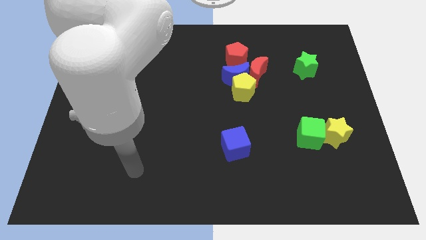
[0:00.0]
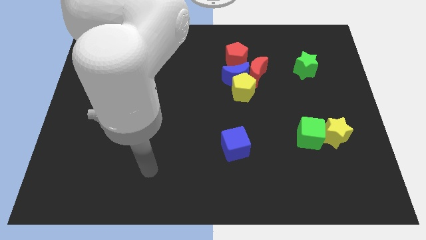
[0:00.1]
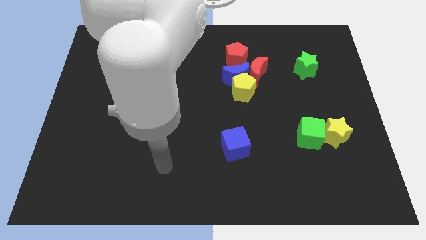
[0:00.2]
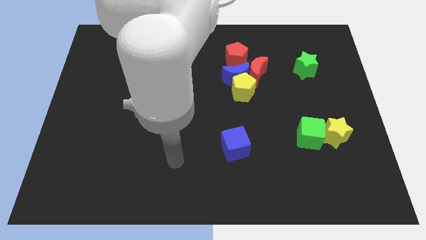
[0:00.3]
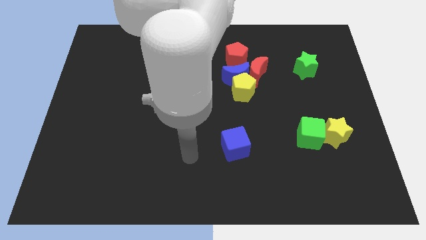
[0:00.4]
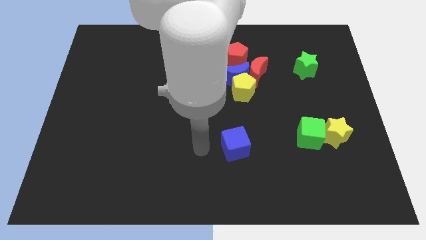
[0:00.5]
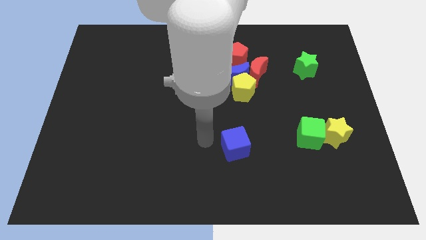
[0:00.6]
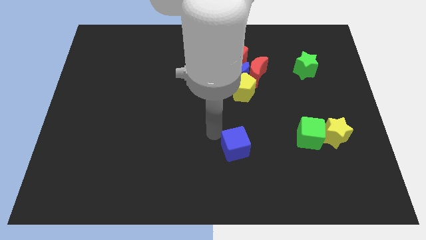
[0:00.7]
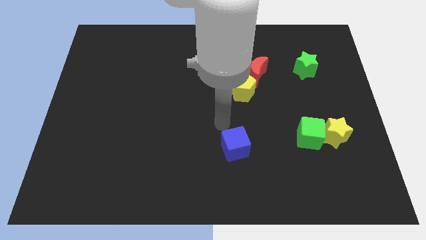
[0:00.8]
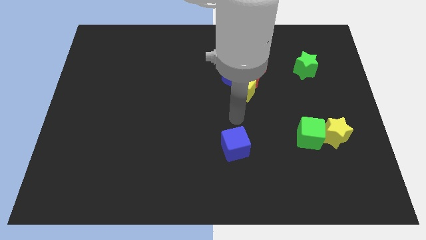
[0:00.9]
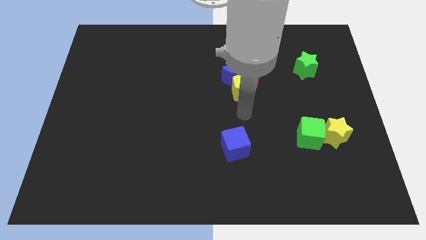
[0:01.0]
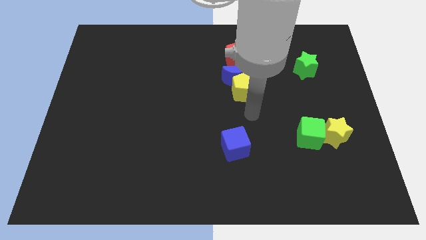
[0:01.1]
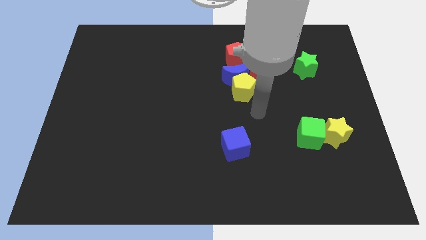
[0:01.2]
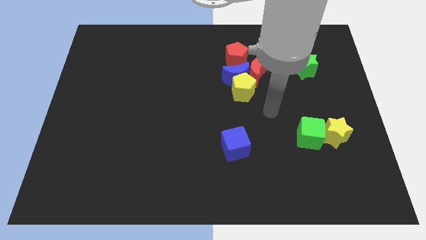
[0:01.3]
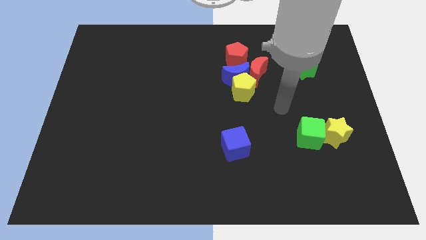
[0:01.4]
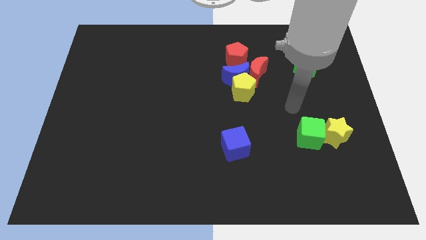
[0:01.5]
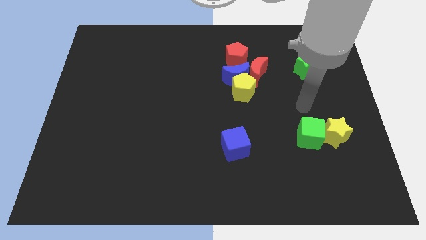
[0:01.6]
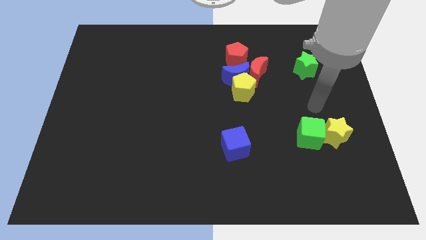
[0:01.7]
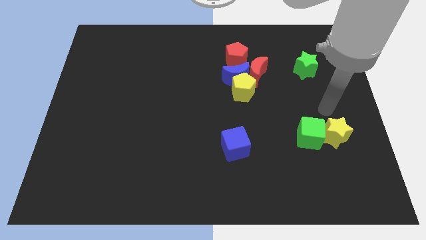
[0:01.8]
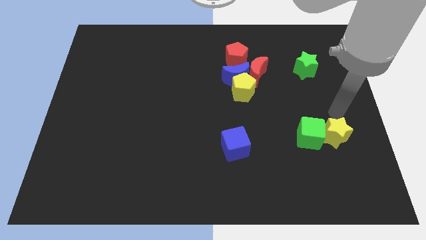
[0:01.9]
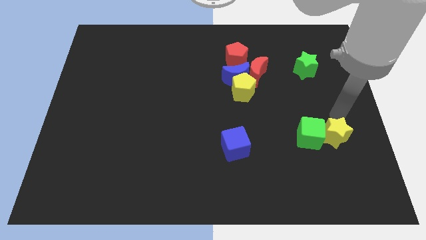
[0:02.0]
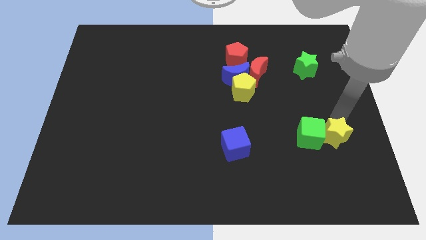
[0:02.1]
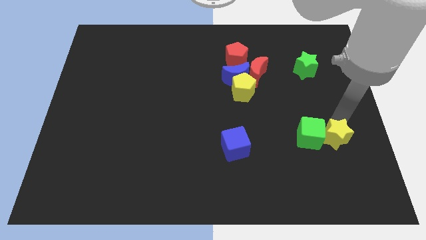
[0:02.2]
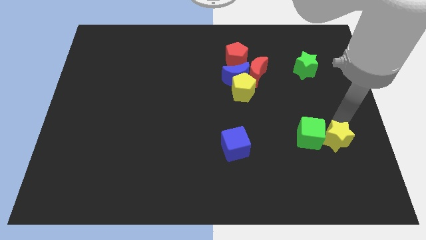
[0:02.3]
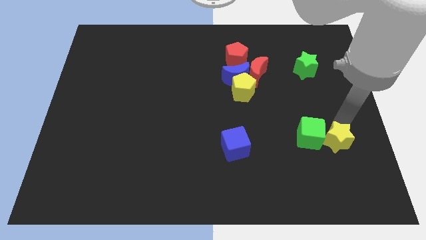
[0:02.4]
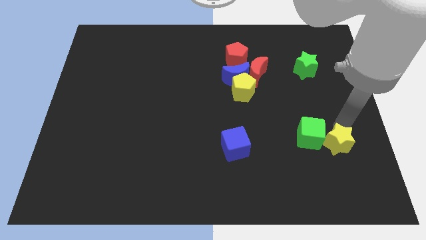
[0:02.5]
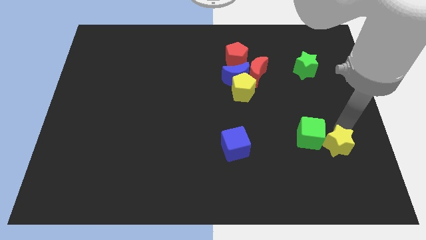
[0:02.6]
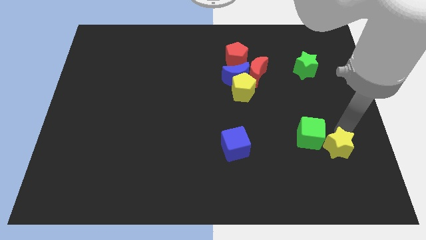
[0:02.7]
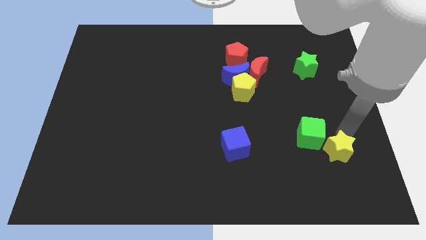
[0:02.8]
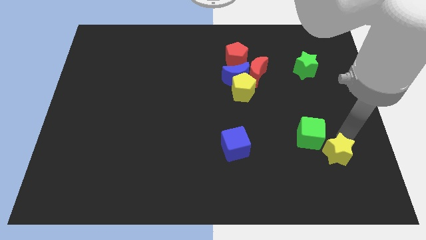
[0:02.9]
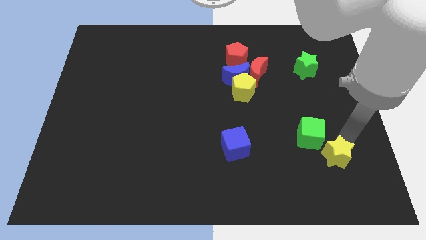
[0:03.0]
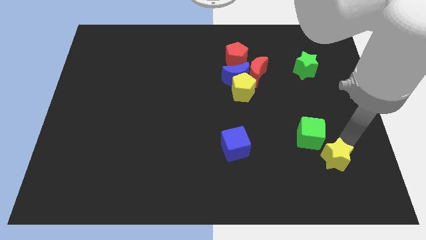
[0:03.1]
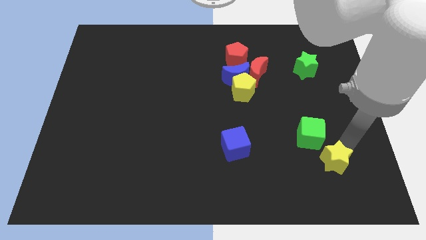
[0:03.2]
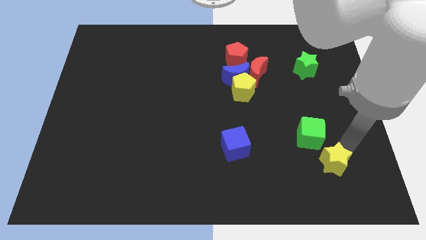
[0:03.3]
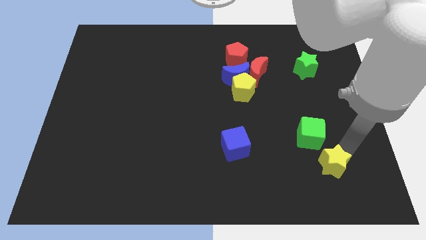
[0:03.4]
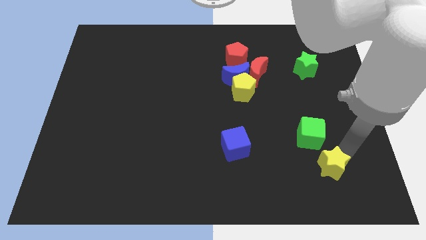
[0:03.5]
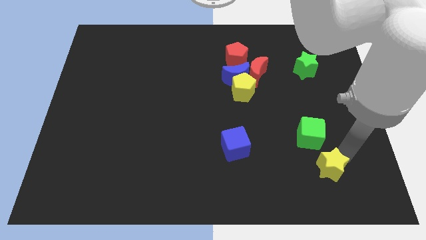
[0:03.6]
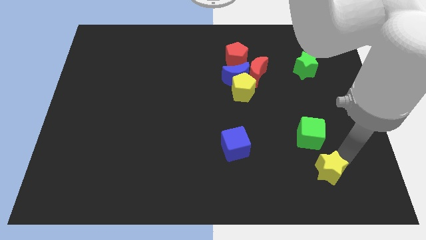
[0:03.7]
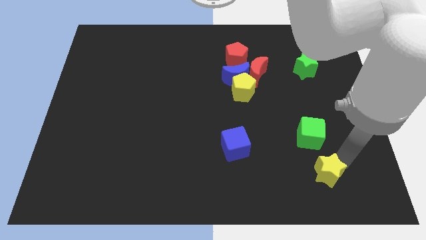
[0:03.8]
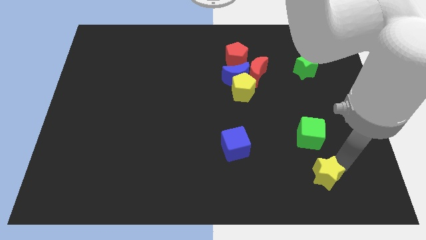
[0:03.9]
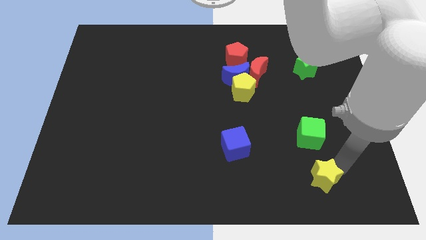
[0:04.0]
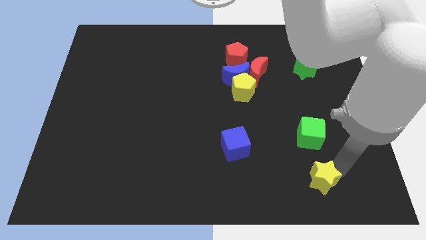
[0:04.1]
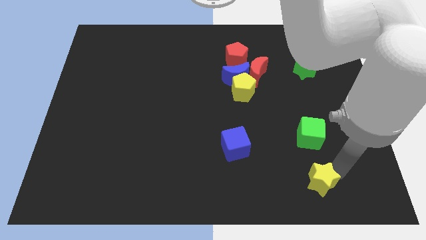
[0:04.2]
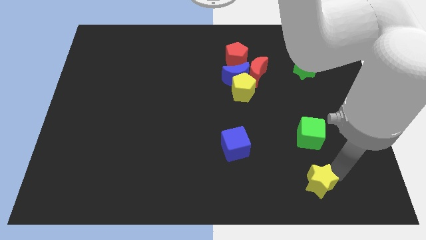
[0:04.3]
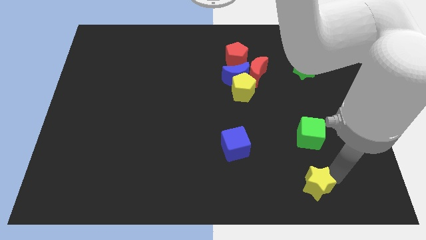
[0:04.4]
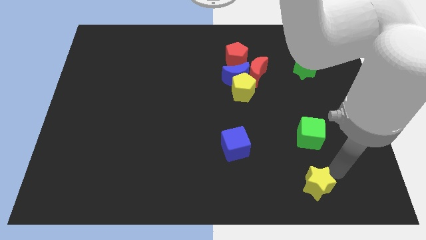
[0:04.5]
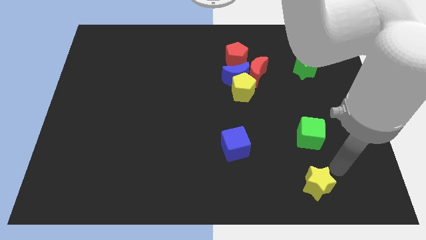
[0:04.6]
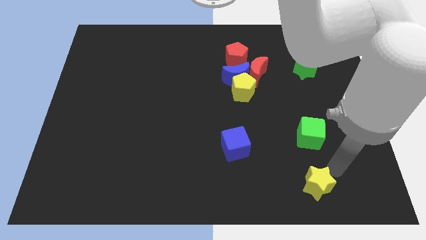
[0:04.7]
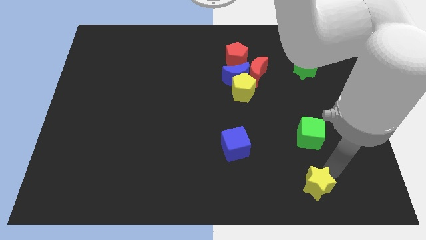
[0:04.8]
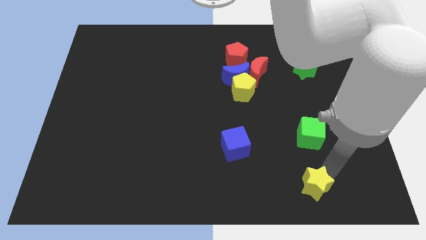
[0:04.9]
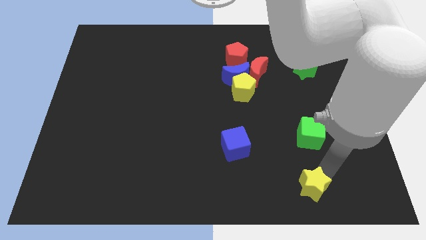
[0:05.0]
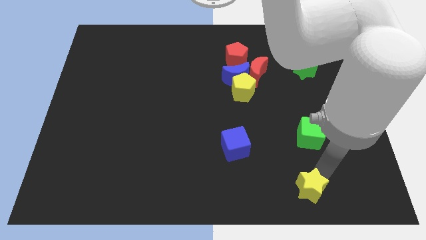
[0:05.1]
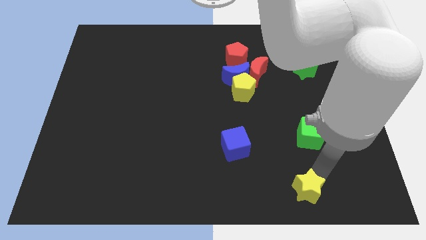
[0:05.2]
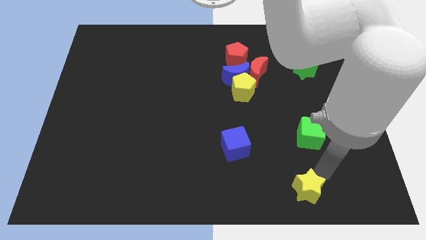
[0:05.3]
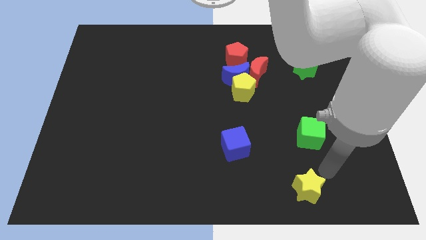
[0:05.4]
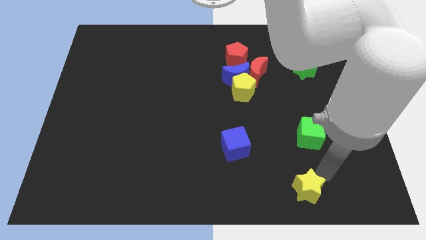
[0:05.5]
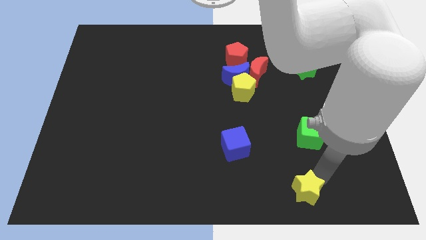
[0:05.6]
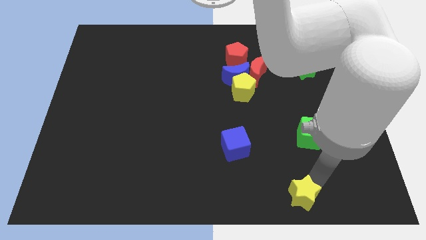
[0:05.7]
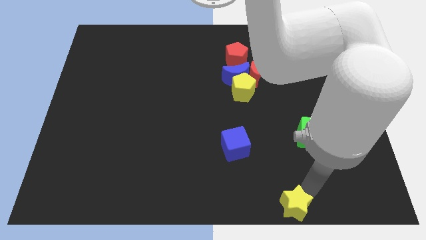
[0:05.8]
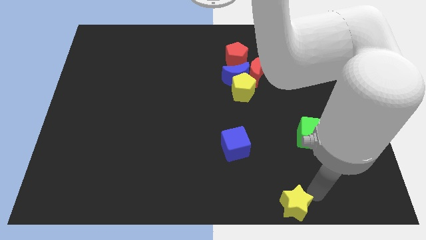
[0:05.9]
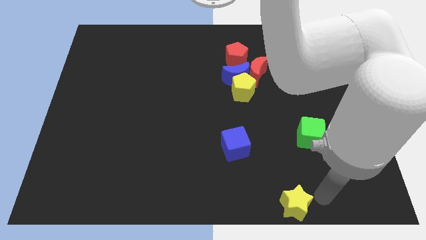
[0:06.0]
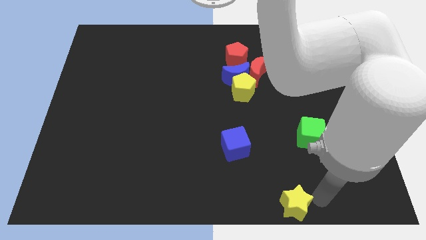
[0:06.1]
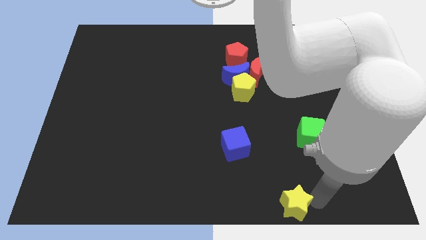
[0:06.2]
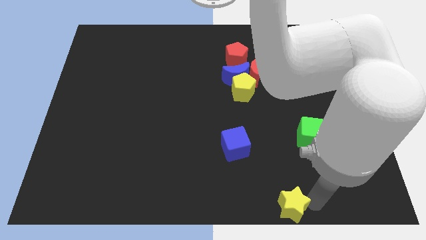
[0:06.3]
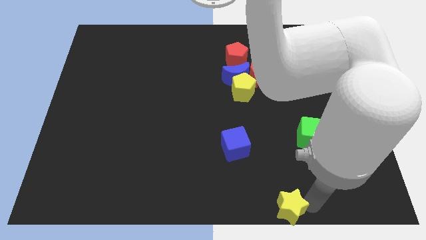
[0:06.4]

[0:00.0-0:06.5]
put the yellow star to the bottom side

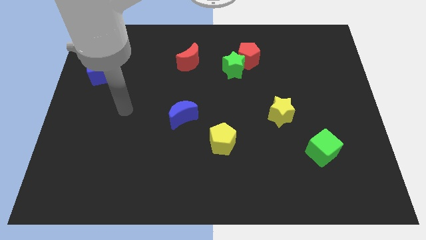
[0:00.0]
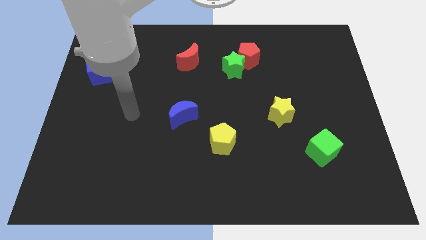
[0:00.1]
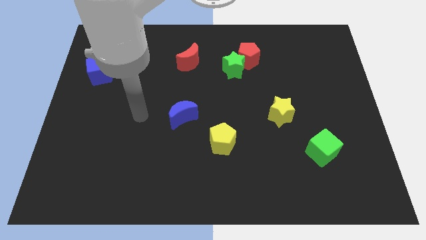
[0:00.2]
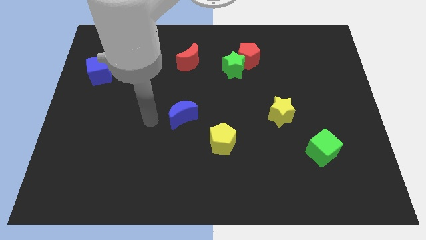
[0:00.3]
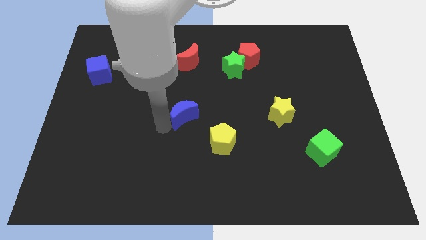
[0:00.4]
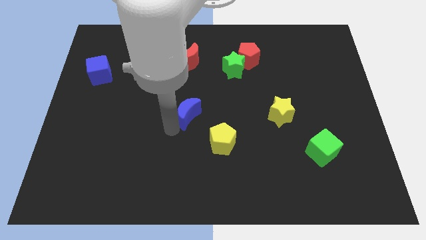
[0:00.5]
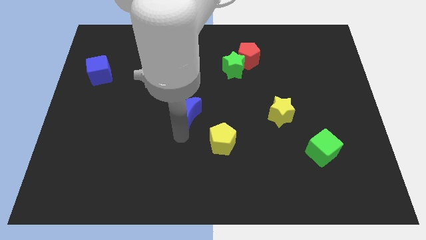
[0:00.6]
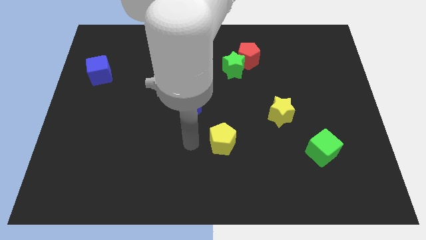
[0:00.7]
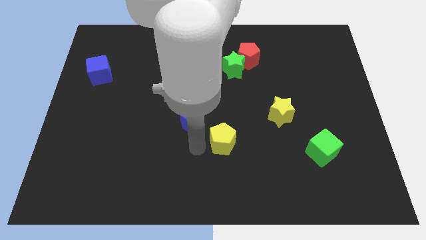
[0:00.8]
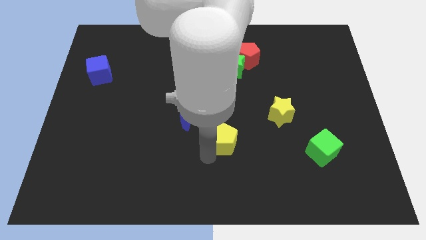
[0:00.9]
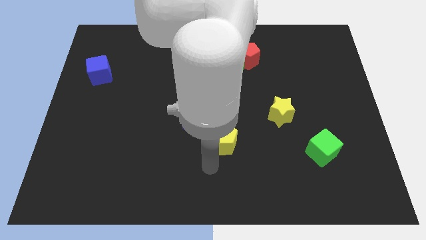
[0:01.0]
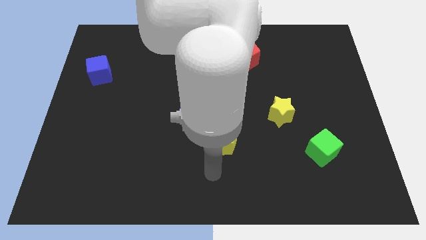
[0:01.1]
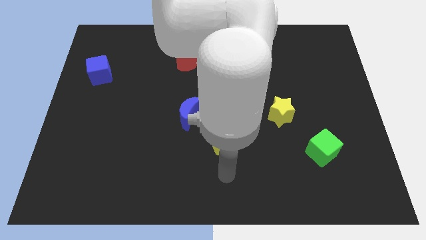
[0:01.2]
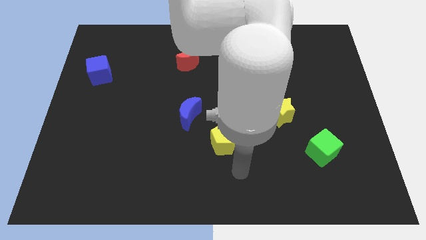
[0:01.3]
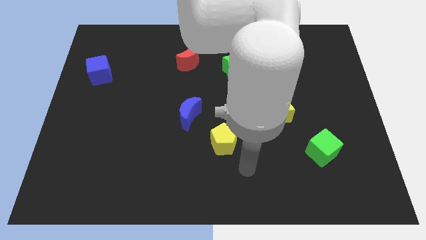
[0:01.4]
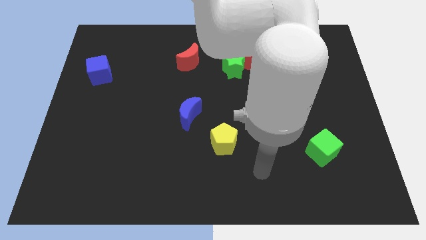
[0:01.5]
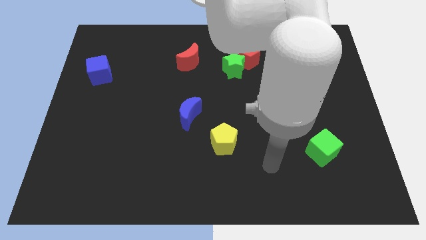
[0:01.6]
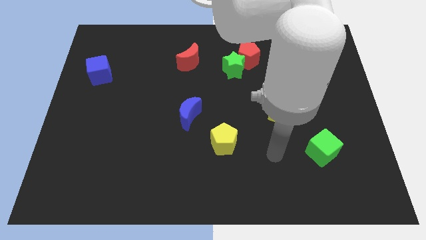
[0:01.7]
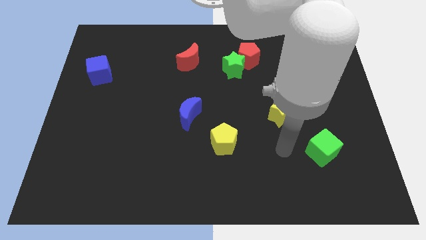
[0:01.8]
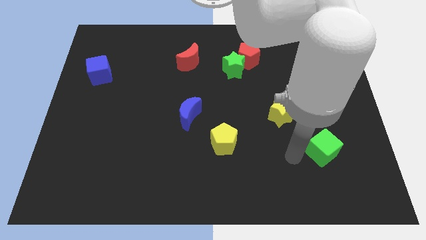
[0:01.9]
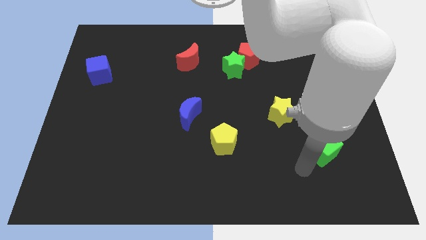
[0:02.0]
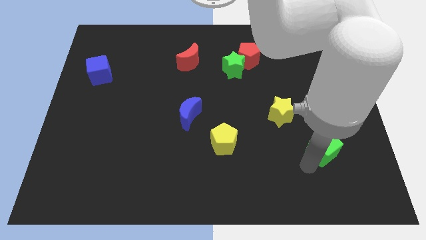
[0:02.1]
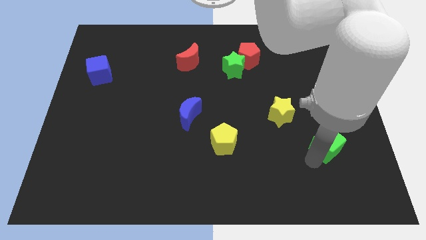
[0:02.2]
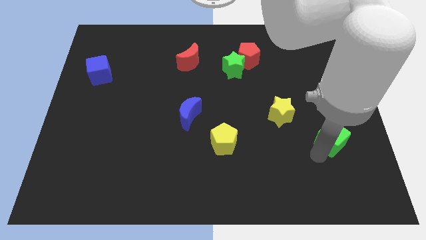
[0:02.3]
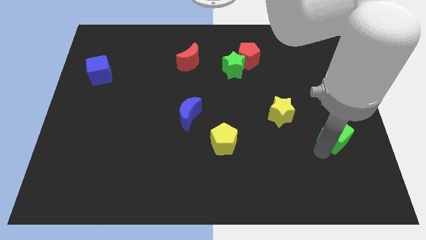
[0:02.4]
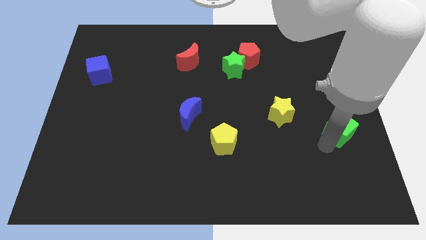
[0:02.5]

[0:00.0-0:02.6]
slide the green cube to the right side of the board
